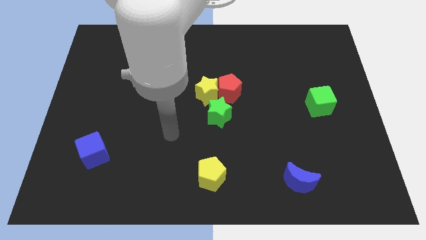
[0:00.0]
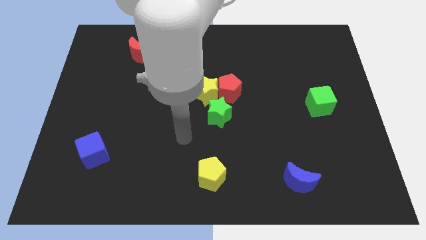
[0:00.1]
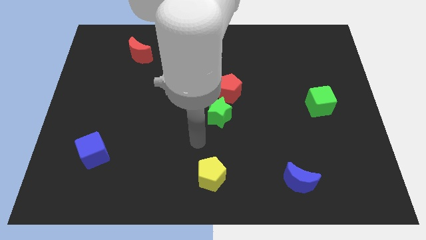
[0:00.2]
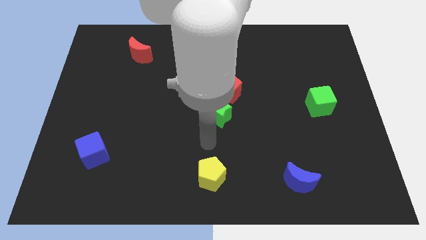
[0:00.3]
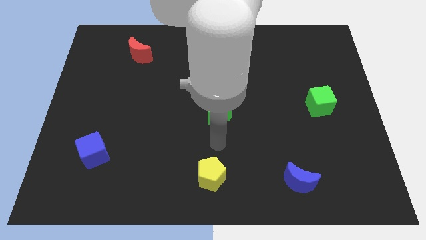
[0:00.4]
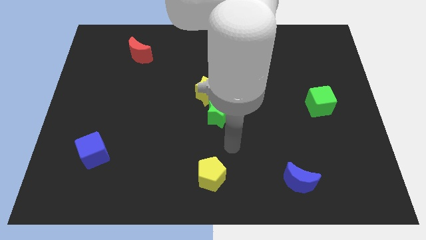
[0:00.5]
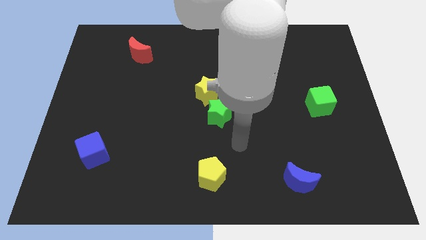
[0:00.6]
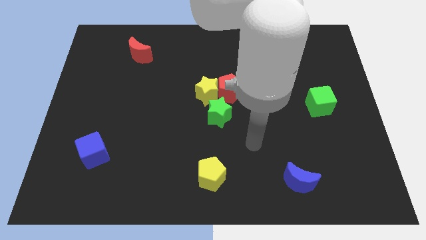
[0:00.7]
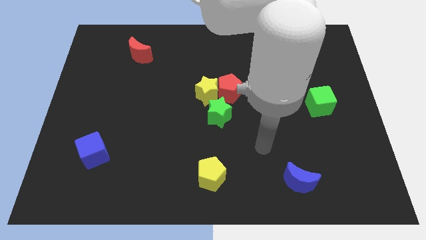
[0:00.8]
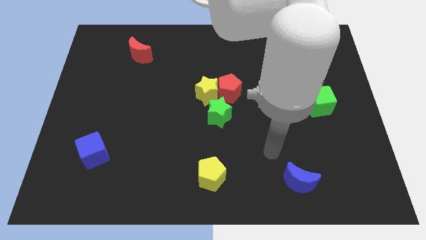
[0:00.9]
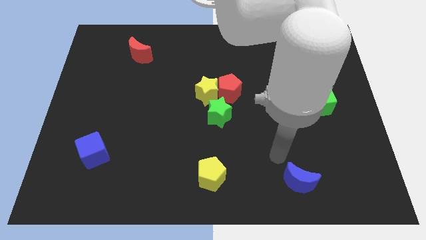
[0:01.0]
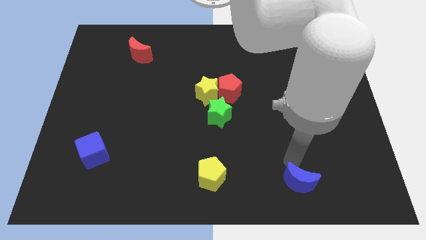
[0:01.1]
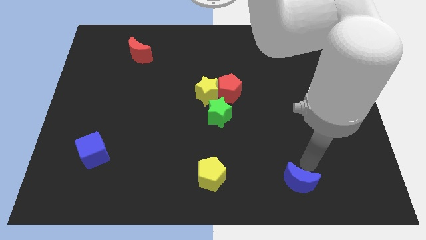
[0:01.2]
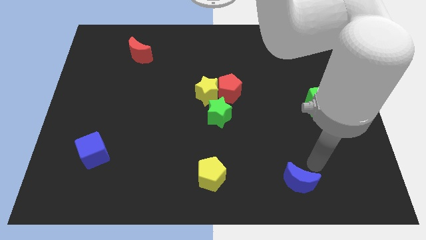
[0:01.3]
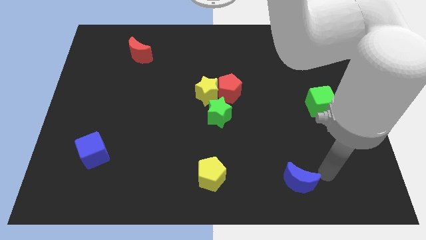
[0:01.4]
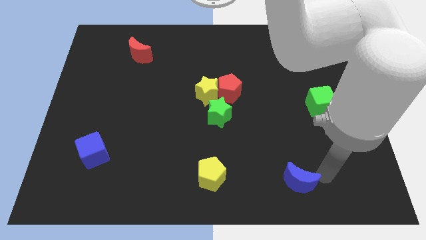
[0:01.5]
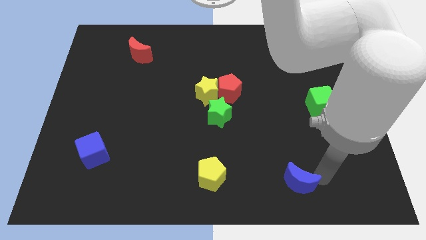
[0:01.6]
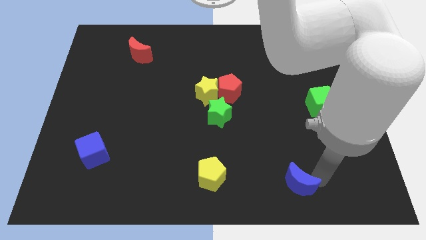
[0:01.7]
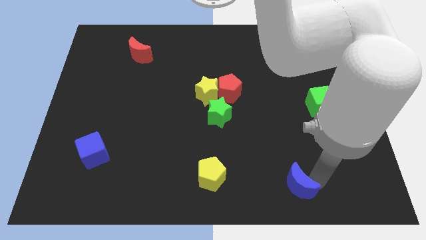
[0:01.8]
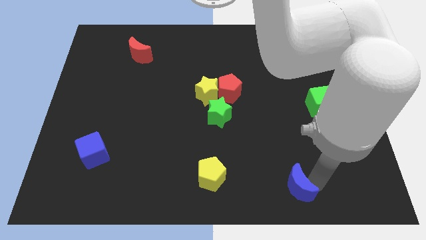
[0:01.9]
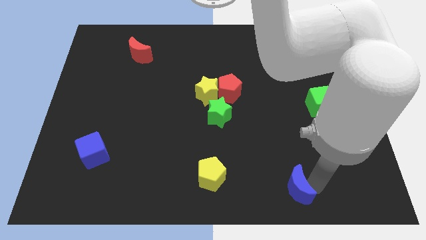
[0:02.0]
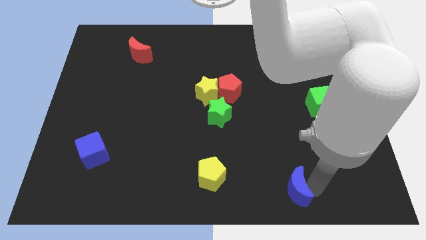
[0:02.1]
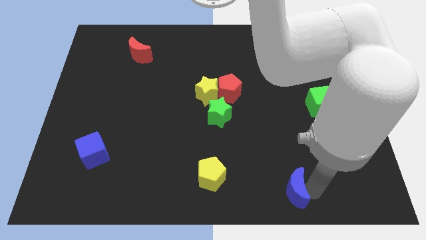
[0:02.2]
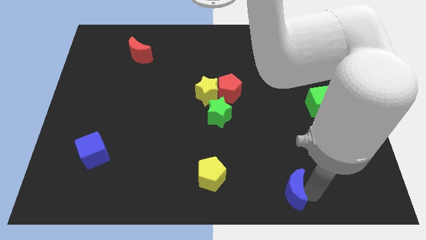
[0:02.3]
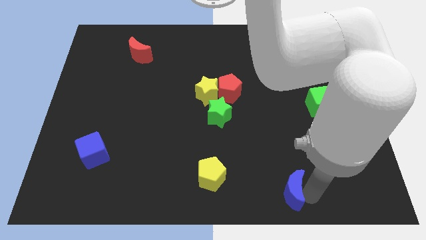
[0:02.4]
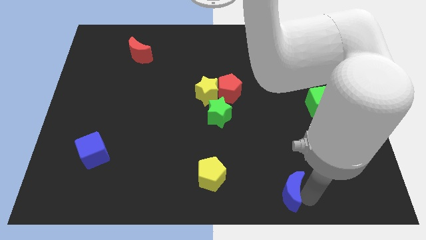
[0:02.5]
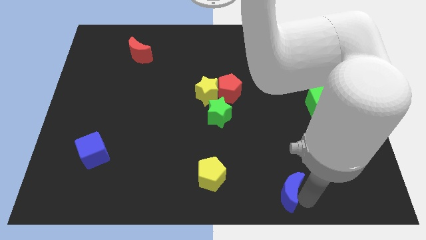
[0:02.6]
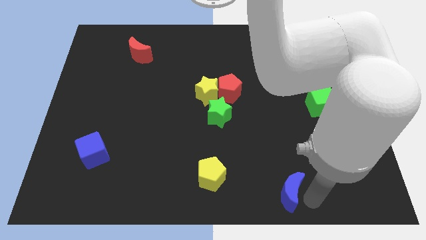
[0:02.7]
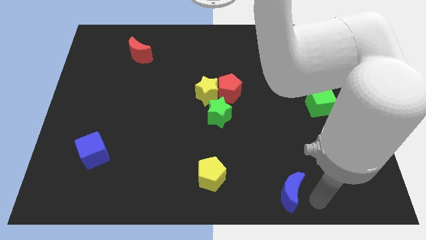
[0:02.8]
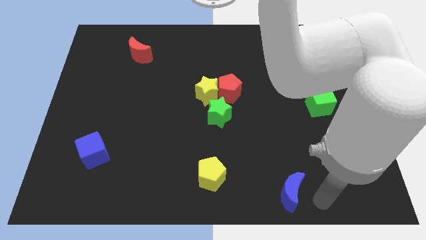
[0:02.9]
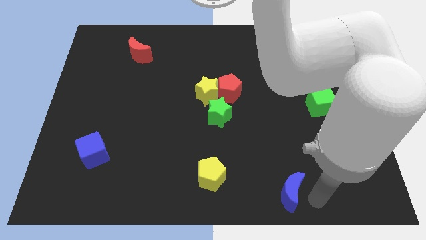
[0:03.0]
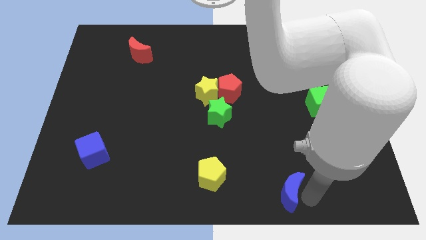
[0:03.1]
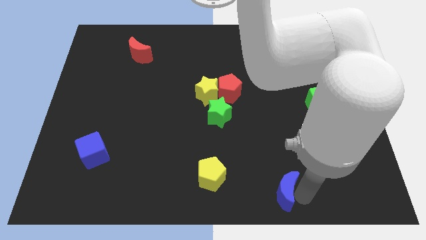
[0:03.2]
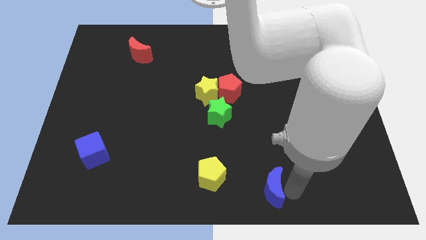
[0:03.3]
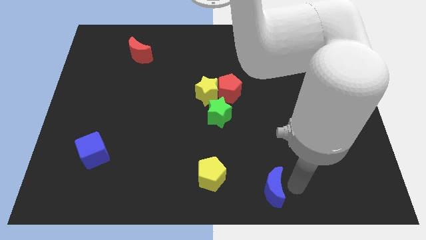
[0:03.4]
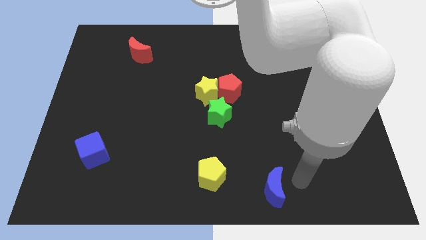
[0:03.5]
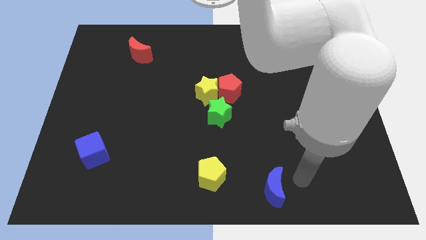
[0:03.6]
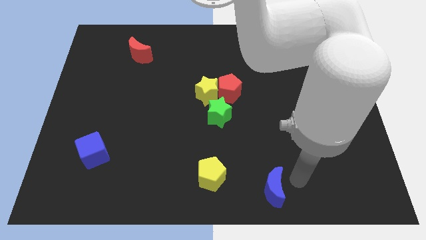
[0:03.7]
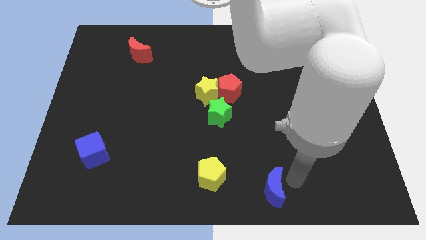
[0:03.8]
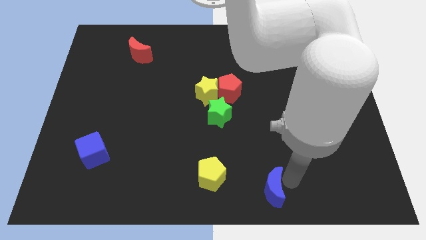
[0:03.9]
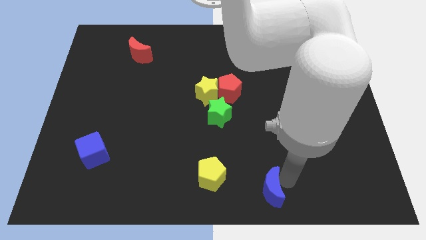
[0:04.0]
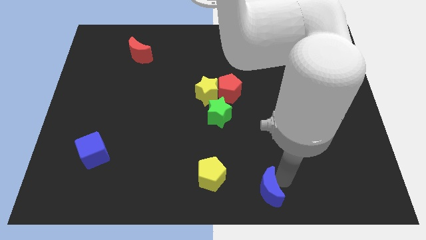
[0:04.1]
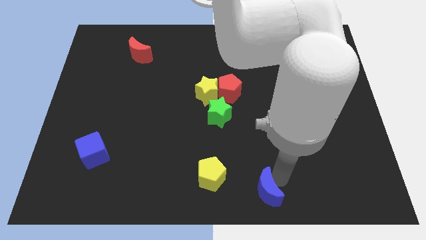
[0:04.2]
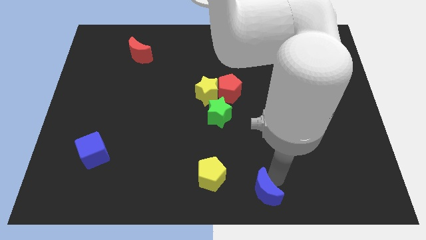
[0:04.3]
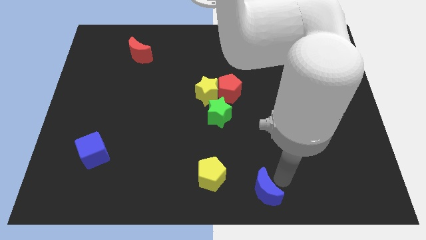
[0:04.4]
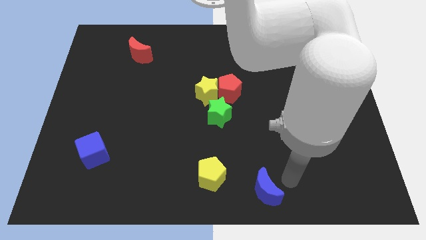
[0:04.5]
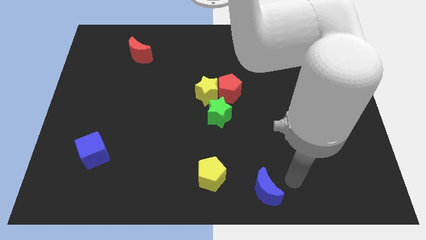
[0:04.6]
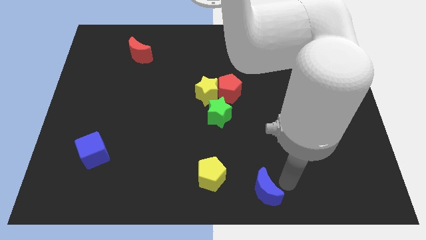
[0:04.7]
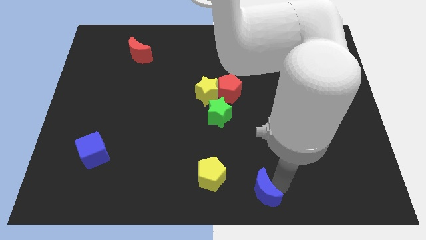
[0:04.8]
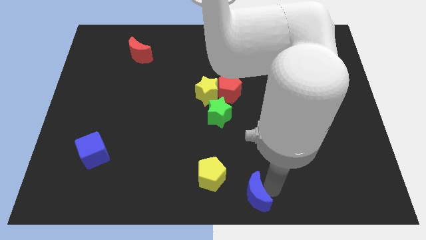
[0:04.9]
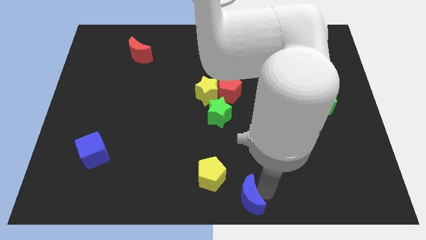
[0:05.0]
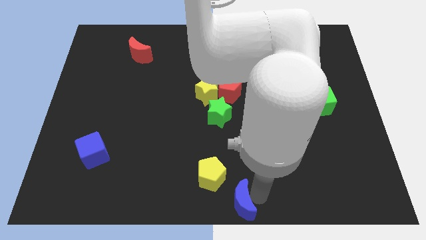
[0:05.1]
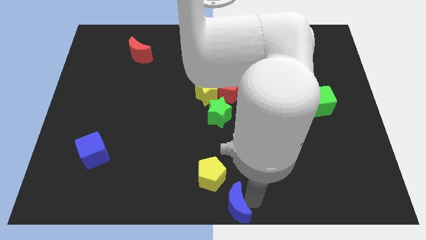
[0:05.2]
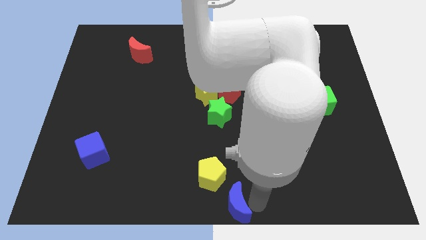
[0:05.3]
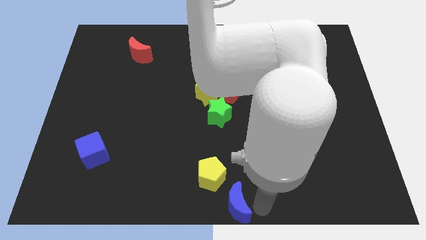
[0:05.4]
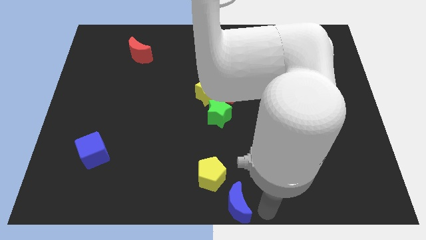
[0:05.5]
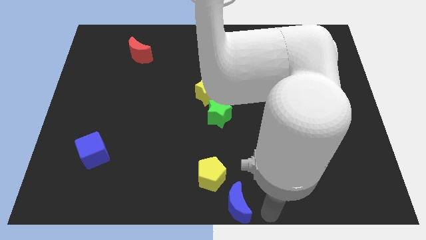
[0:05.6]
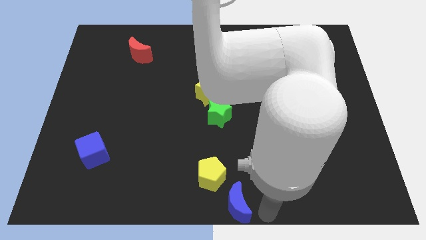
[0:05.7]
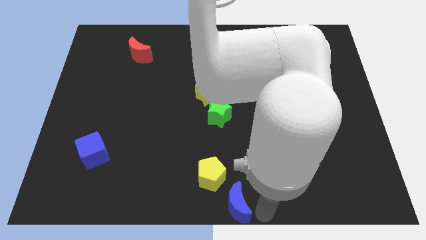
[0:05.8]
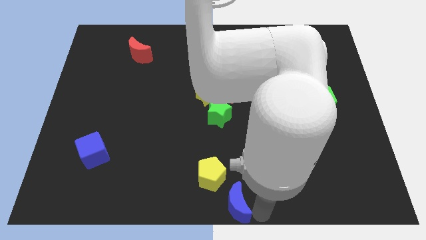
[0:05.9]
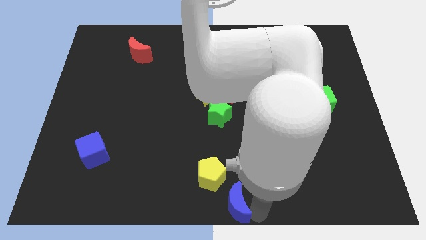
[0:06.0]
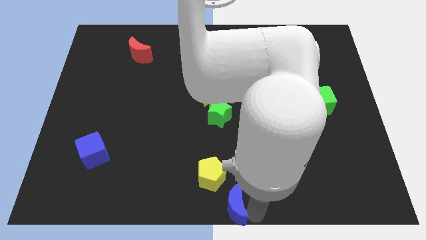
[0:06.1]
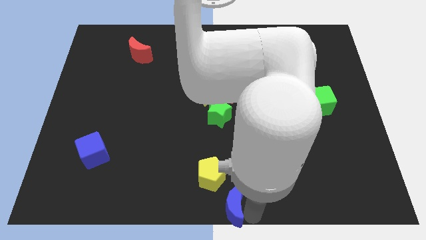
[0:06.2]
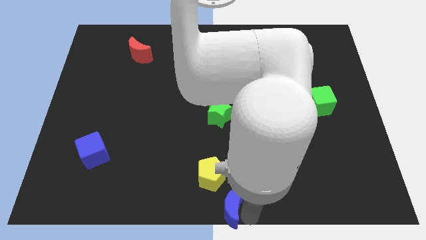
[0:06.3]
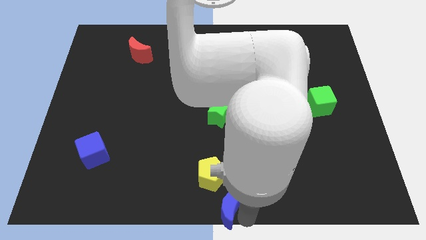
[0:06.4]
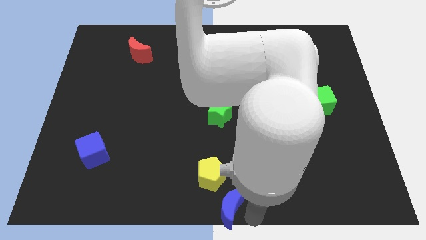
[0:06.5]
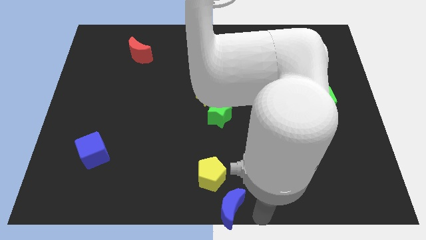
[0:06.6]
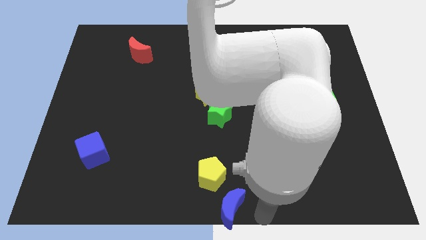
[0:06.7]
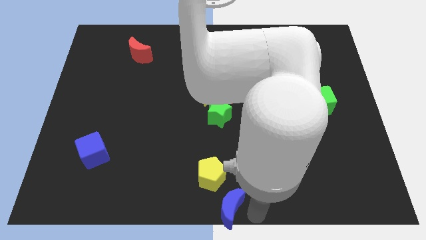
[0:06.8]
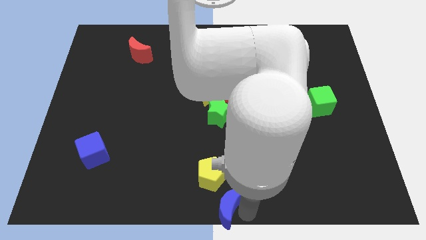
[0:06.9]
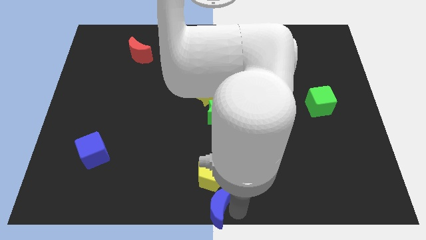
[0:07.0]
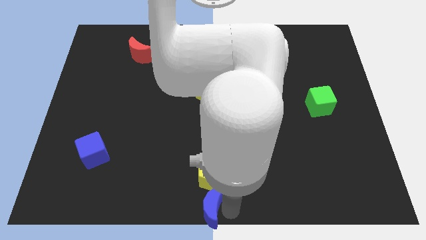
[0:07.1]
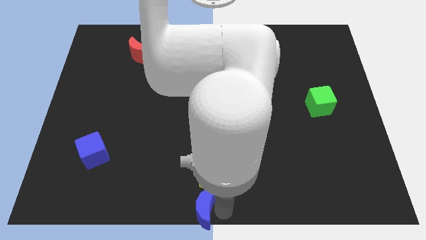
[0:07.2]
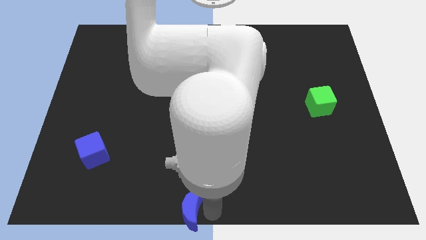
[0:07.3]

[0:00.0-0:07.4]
push the blue moon to the left

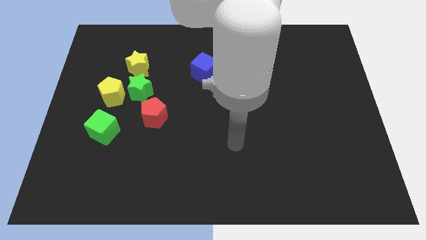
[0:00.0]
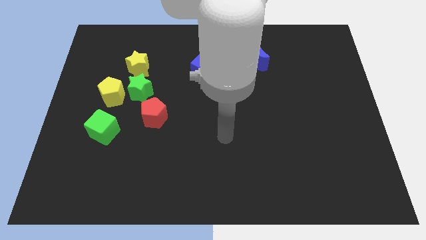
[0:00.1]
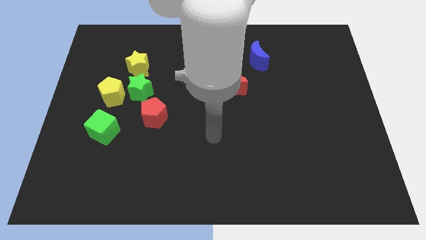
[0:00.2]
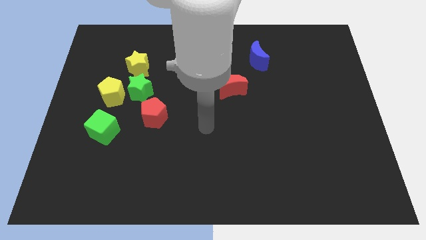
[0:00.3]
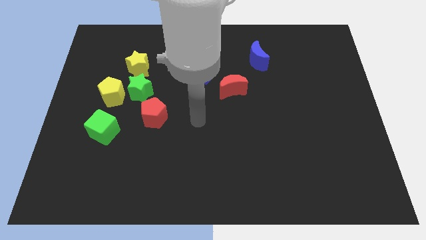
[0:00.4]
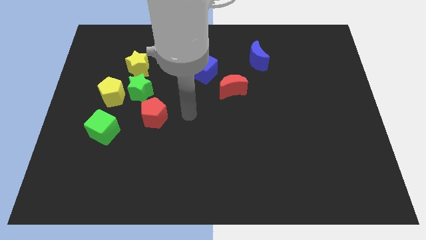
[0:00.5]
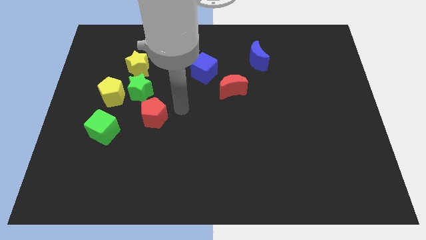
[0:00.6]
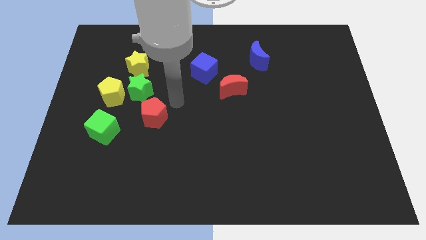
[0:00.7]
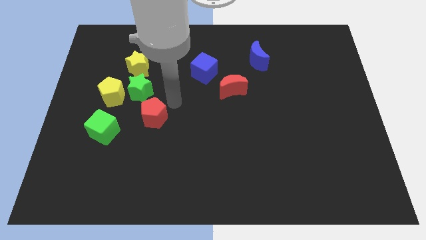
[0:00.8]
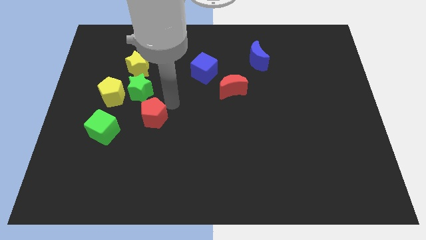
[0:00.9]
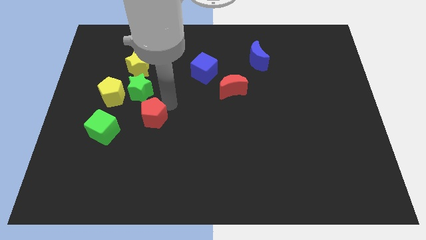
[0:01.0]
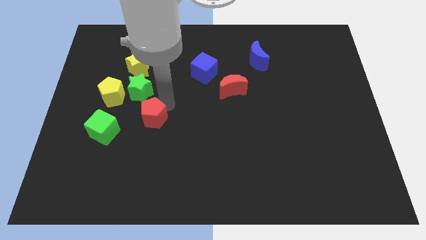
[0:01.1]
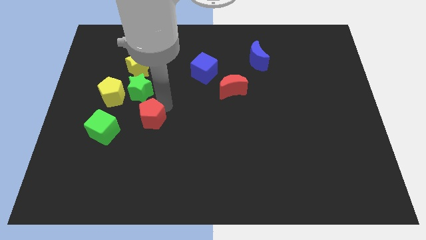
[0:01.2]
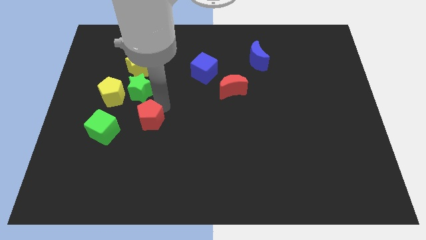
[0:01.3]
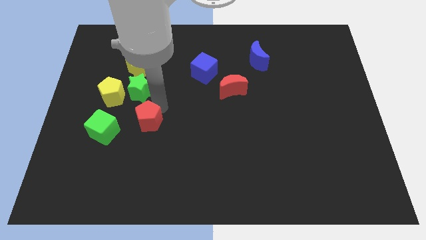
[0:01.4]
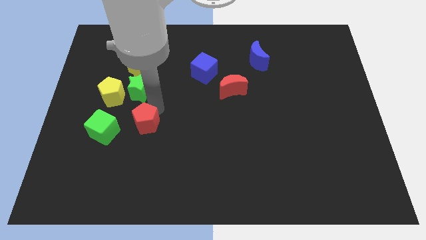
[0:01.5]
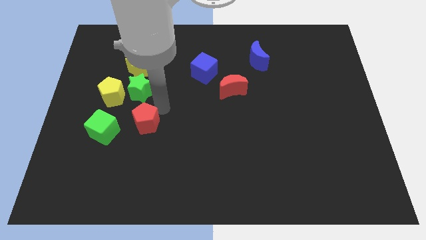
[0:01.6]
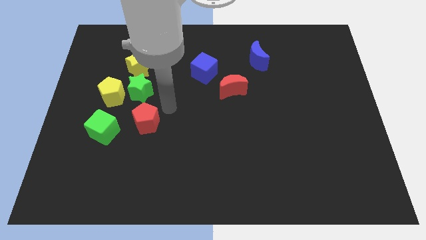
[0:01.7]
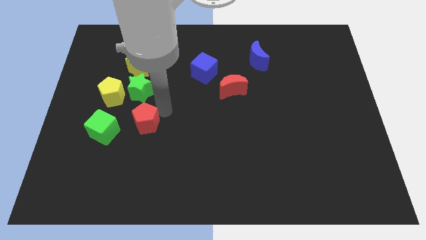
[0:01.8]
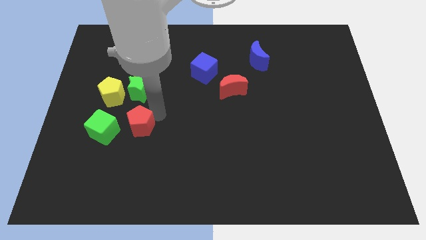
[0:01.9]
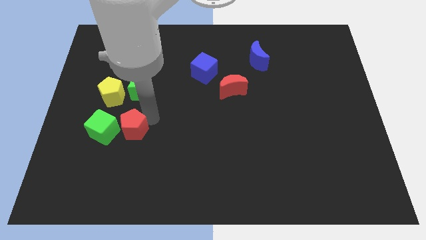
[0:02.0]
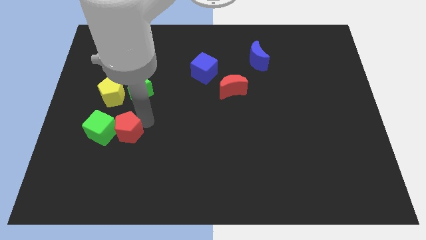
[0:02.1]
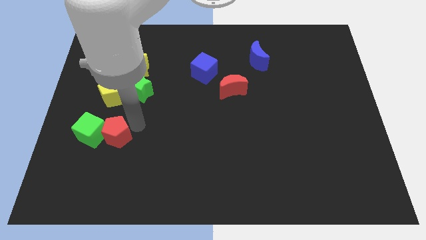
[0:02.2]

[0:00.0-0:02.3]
move the red pentagon diagonally down and left slightly
